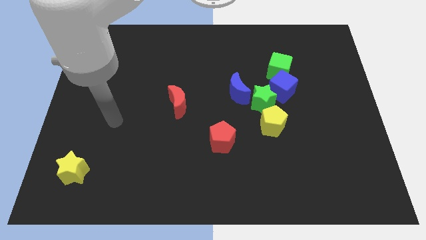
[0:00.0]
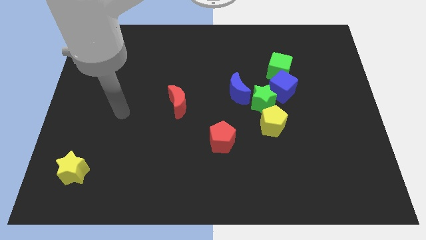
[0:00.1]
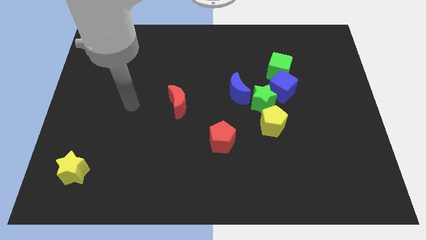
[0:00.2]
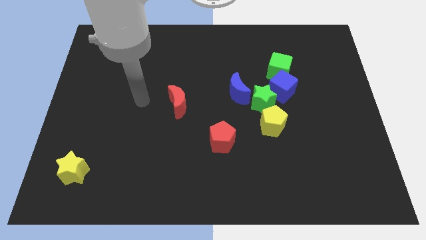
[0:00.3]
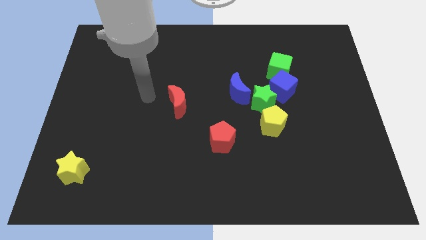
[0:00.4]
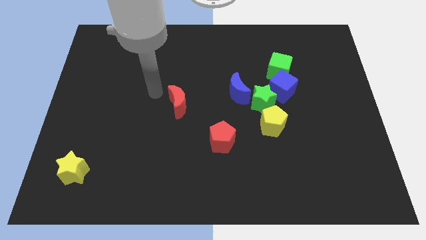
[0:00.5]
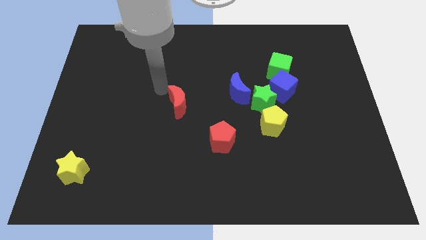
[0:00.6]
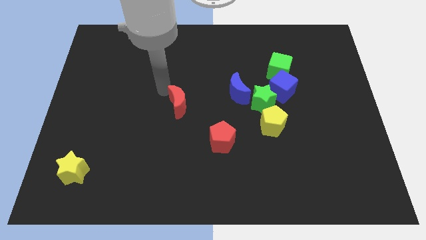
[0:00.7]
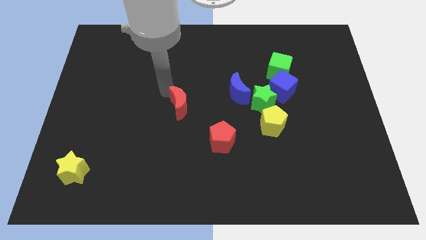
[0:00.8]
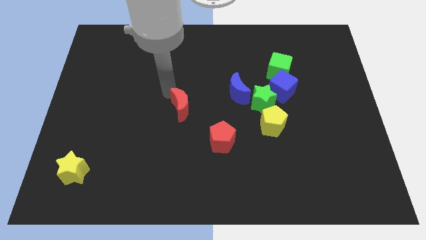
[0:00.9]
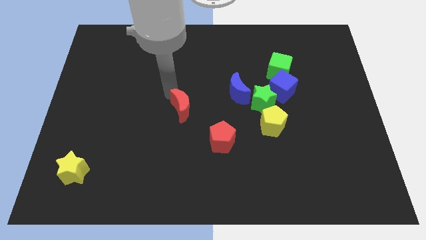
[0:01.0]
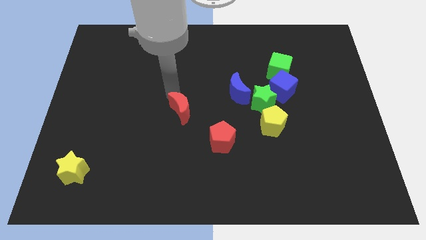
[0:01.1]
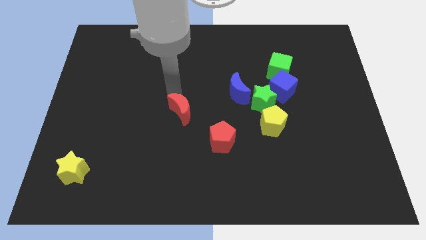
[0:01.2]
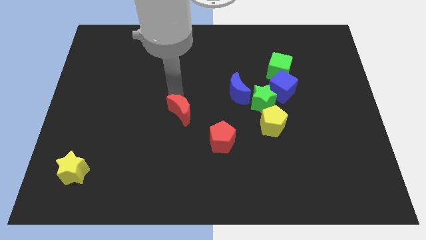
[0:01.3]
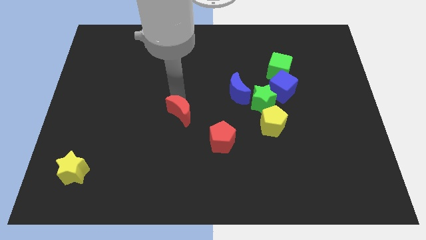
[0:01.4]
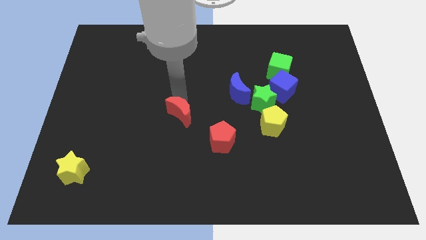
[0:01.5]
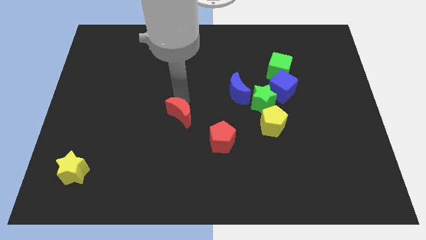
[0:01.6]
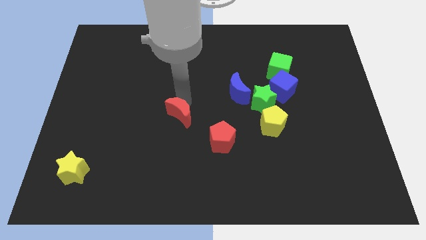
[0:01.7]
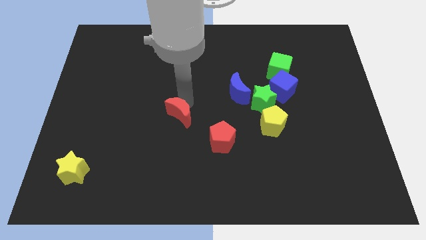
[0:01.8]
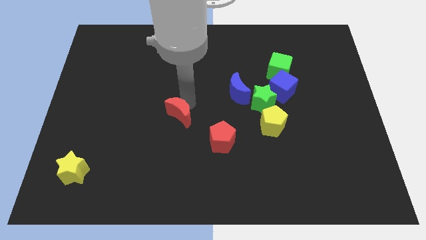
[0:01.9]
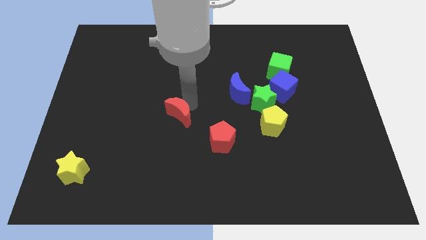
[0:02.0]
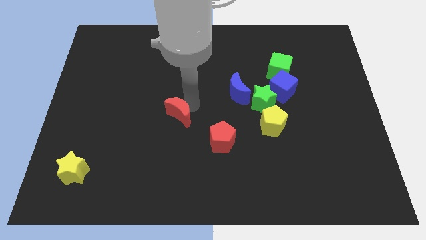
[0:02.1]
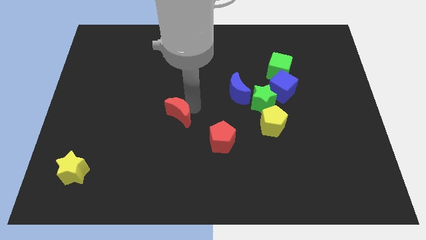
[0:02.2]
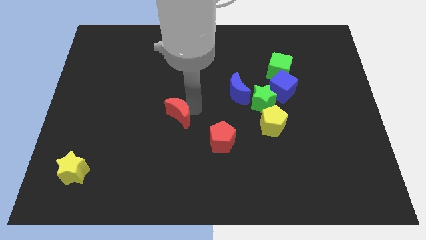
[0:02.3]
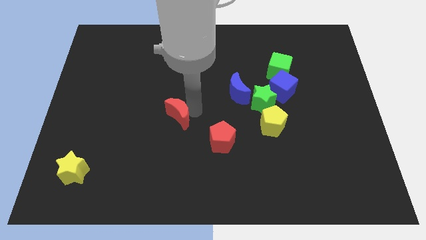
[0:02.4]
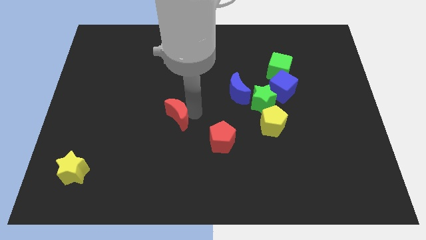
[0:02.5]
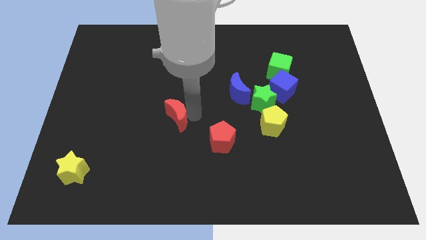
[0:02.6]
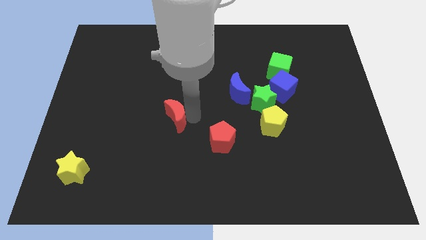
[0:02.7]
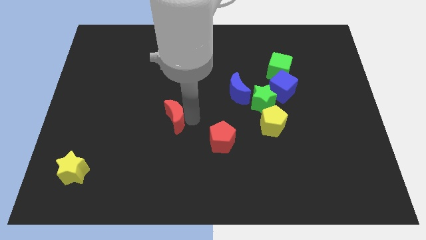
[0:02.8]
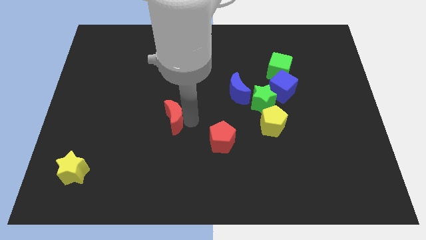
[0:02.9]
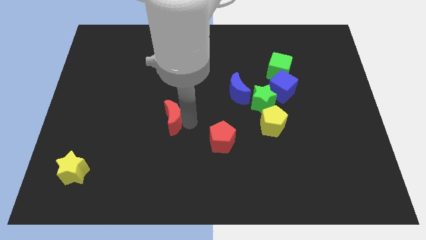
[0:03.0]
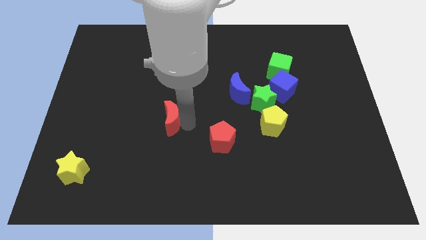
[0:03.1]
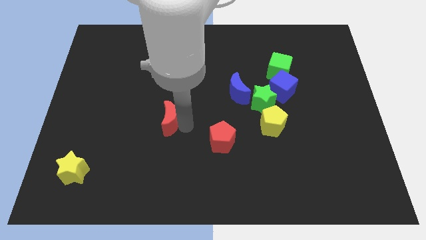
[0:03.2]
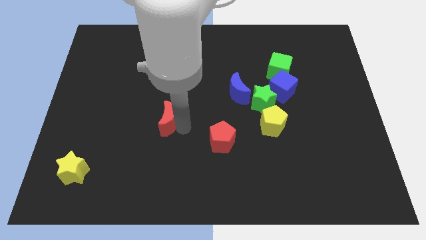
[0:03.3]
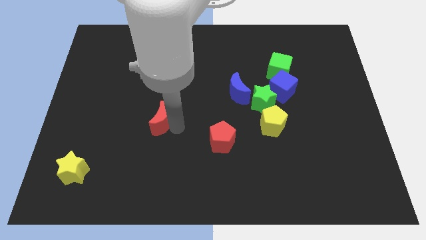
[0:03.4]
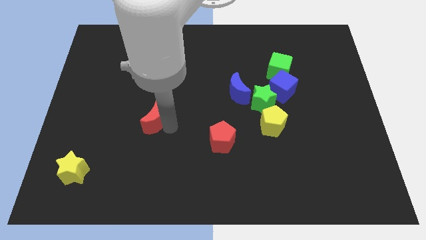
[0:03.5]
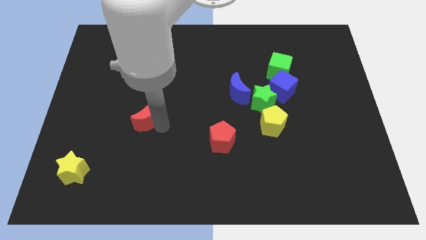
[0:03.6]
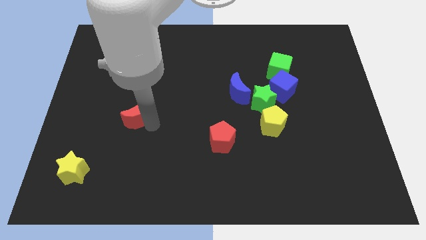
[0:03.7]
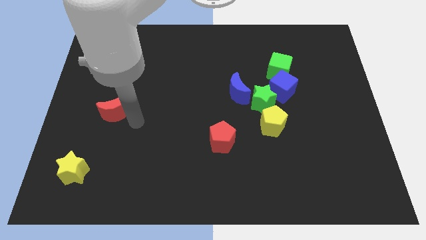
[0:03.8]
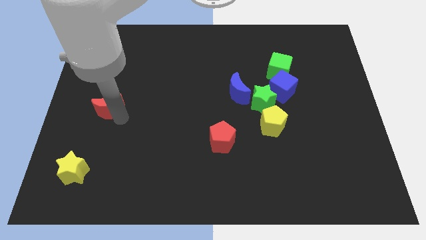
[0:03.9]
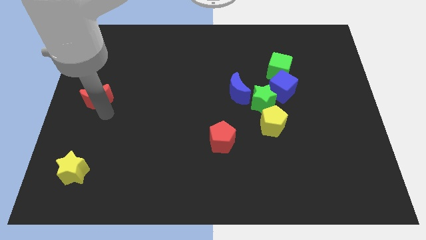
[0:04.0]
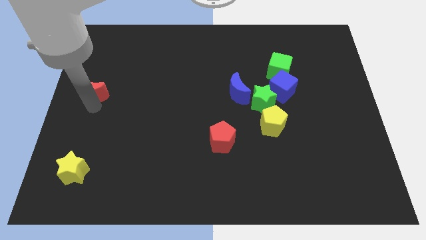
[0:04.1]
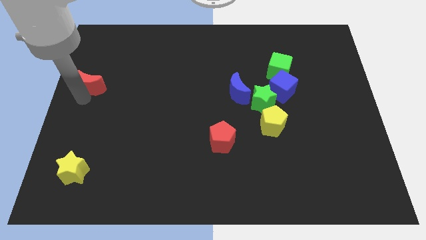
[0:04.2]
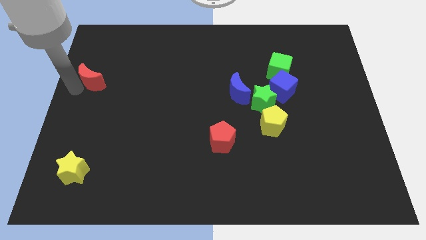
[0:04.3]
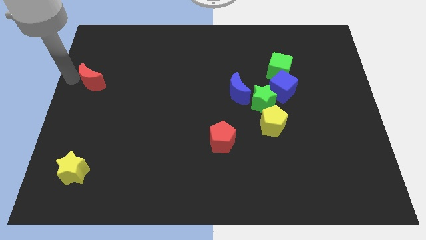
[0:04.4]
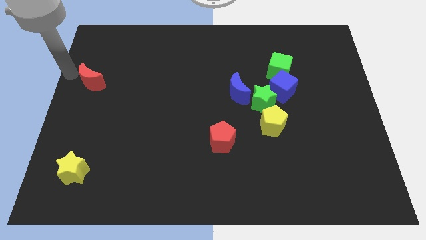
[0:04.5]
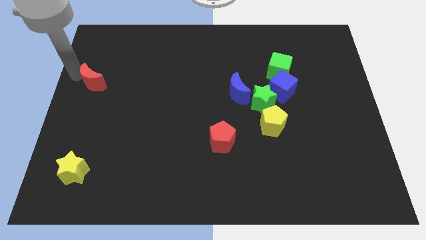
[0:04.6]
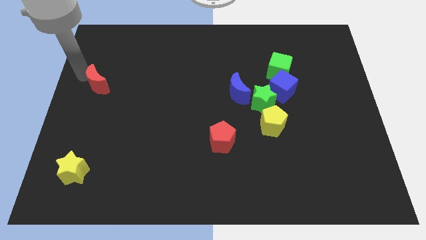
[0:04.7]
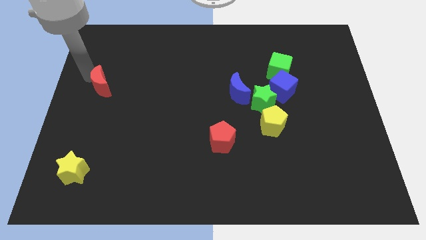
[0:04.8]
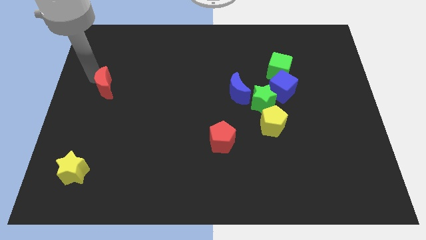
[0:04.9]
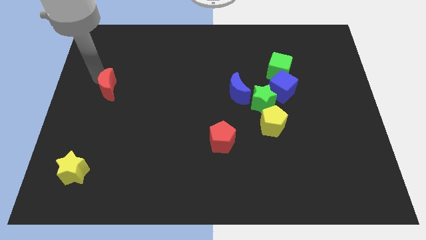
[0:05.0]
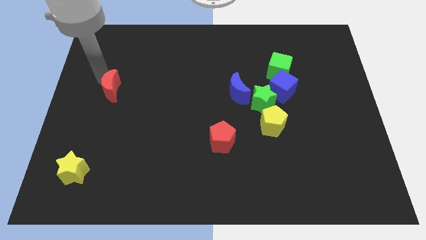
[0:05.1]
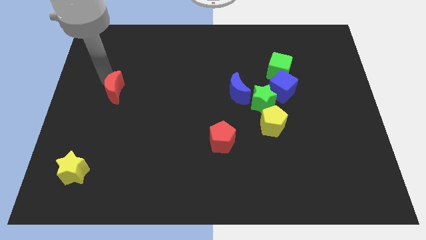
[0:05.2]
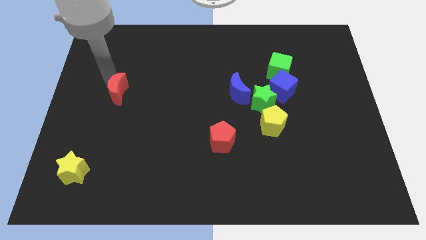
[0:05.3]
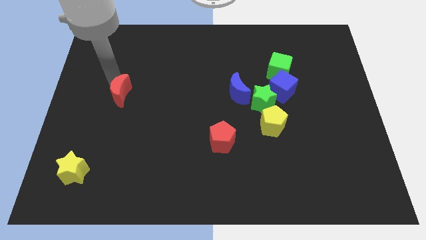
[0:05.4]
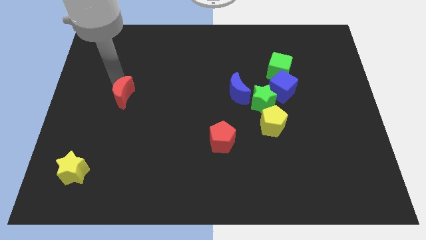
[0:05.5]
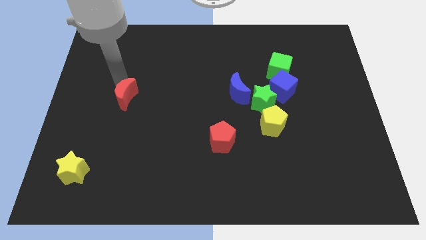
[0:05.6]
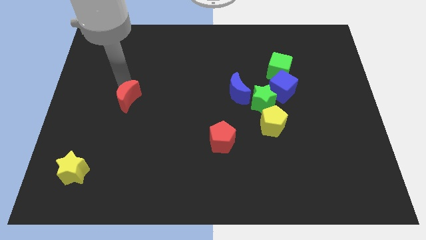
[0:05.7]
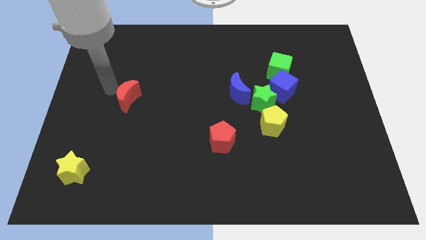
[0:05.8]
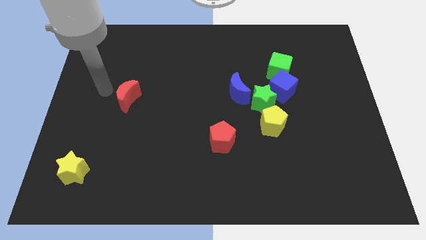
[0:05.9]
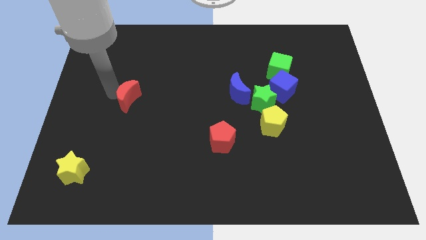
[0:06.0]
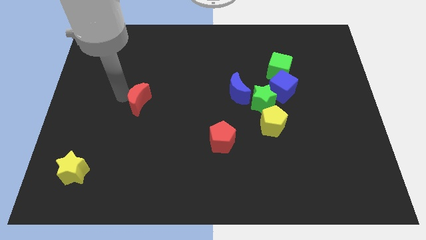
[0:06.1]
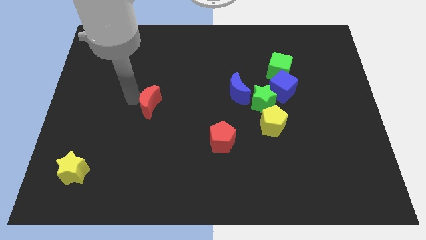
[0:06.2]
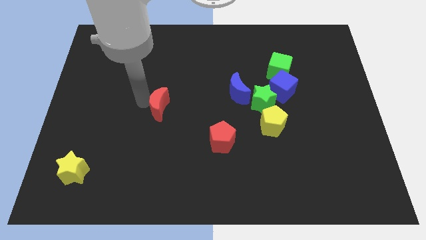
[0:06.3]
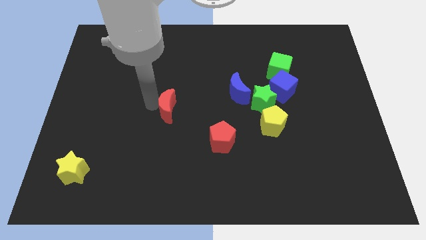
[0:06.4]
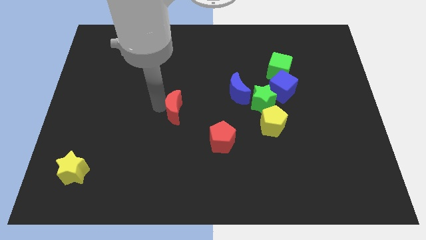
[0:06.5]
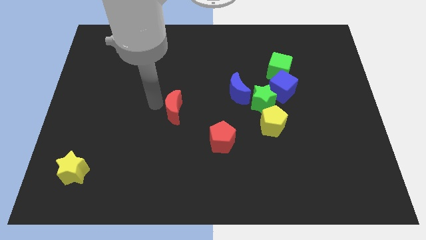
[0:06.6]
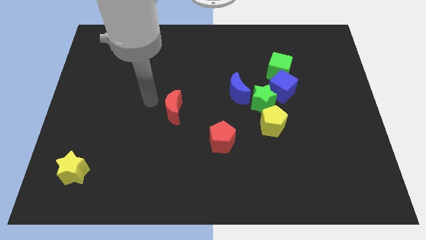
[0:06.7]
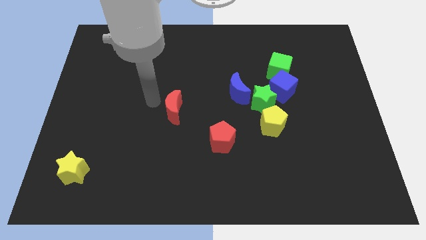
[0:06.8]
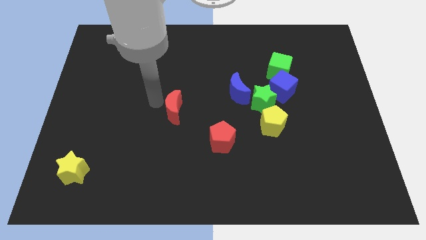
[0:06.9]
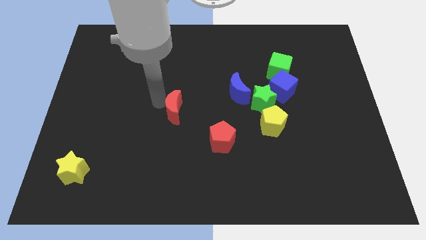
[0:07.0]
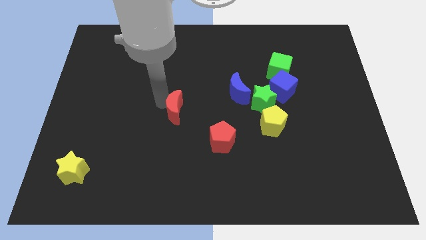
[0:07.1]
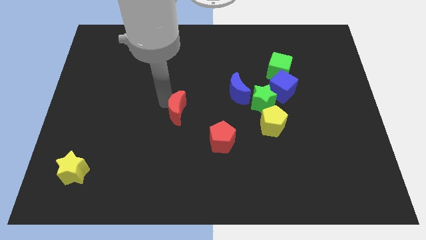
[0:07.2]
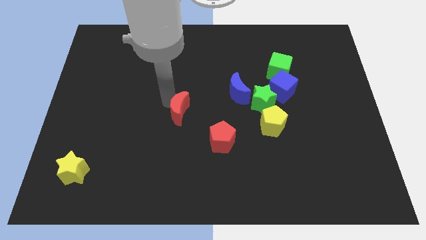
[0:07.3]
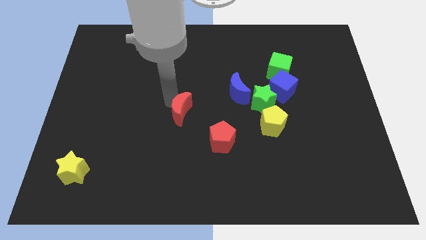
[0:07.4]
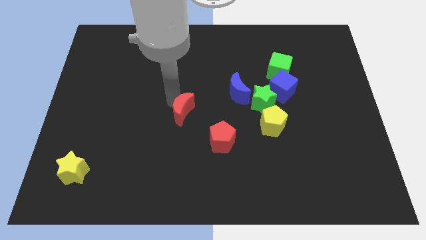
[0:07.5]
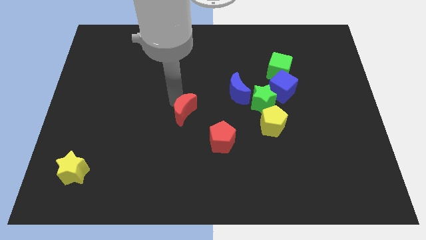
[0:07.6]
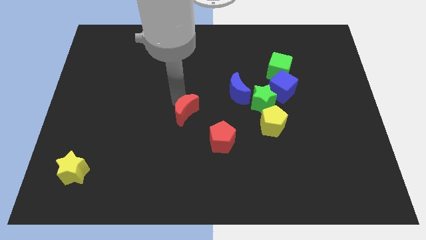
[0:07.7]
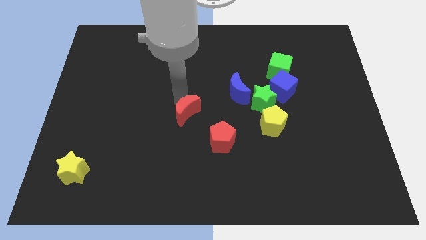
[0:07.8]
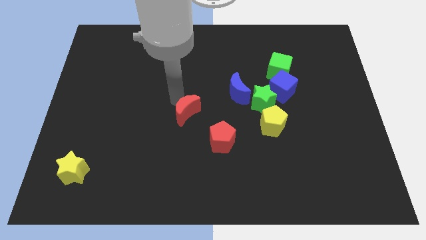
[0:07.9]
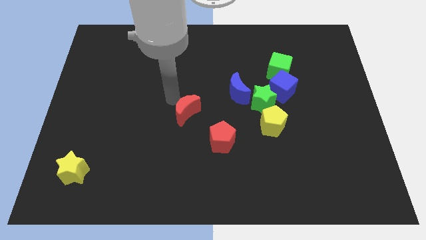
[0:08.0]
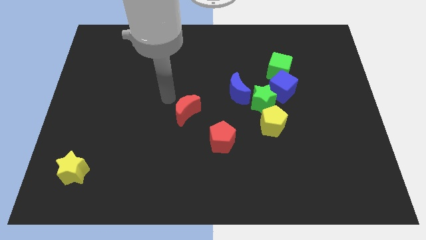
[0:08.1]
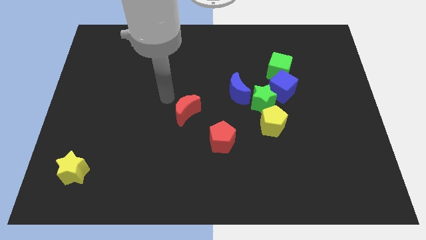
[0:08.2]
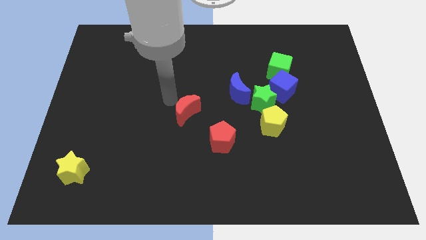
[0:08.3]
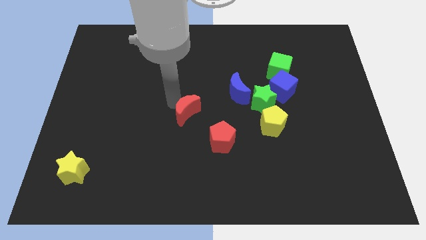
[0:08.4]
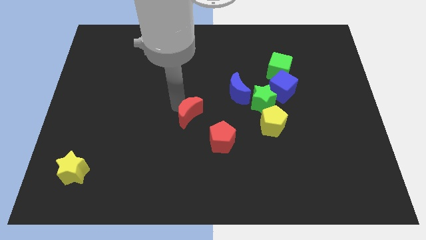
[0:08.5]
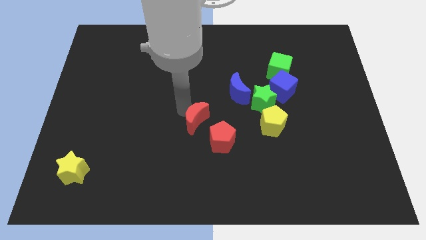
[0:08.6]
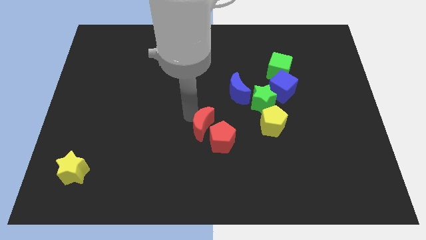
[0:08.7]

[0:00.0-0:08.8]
move the red moon close to the red pentagon
